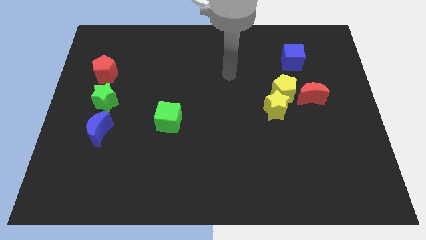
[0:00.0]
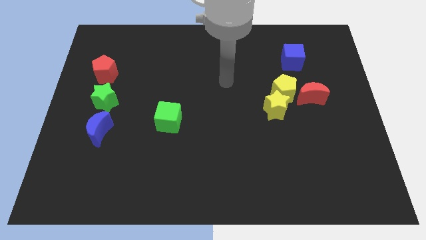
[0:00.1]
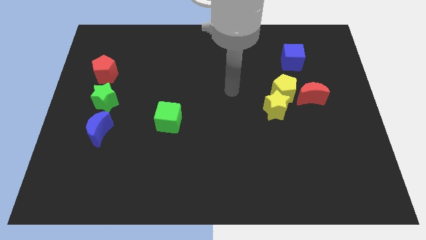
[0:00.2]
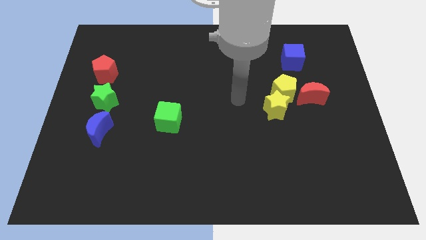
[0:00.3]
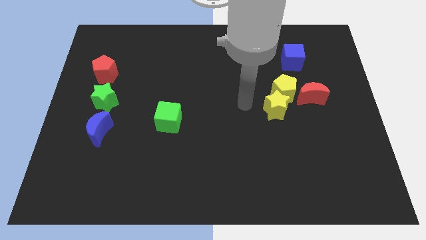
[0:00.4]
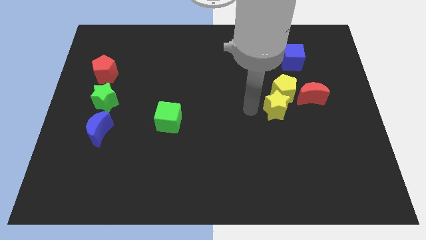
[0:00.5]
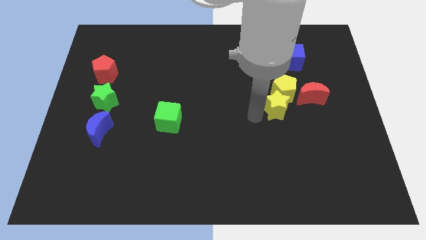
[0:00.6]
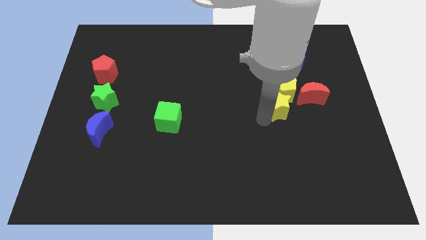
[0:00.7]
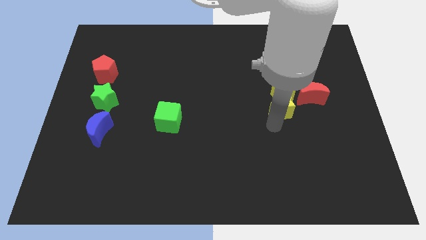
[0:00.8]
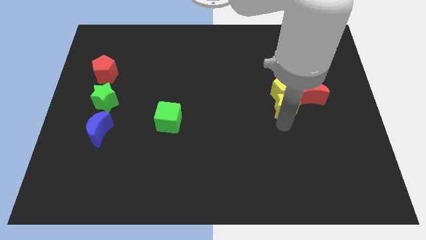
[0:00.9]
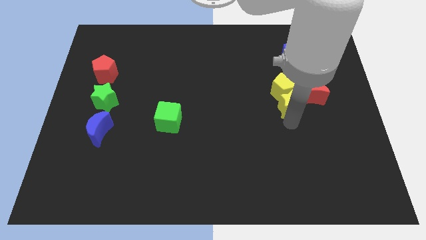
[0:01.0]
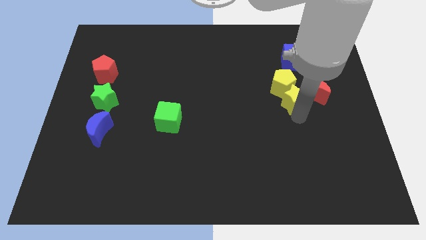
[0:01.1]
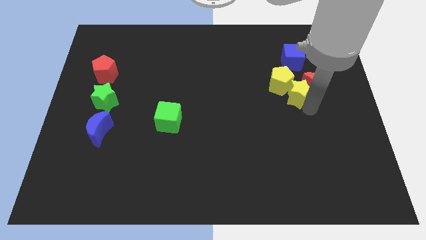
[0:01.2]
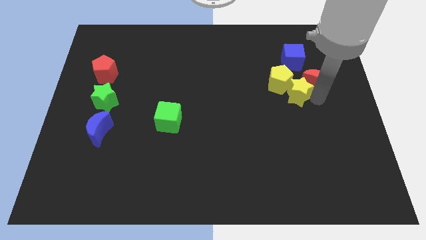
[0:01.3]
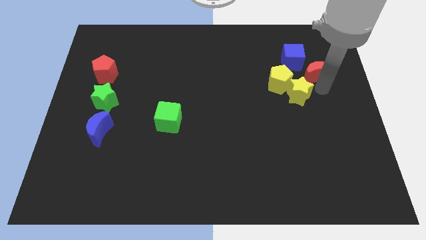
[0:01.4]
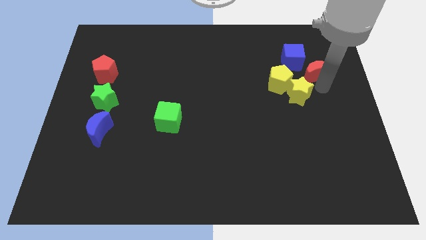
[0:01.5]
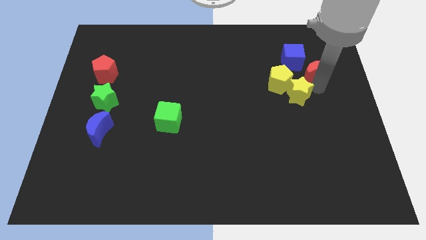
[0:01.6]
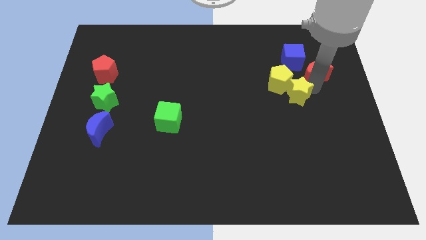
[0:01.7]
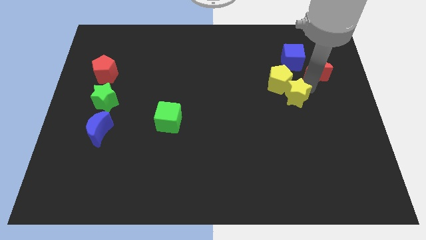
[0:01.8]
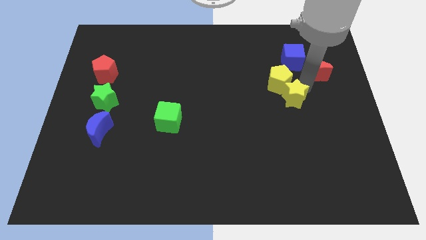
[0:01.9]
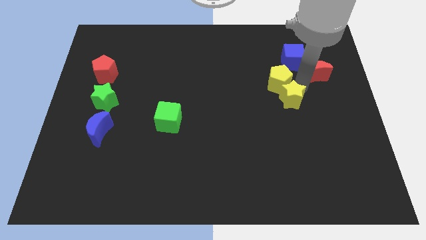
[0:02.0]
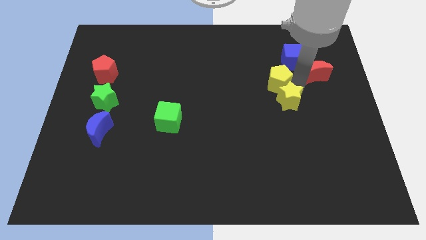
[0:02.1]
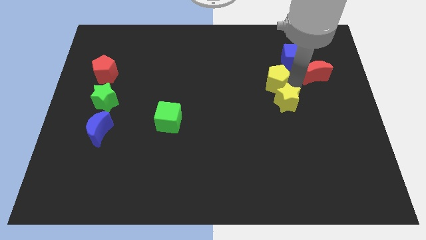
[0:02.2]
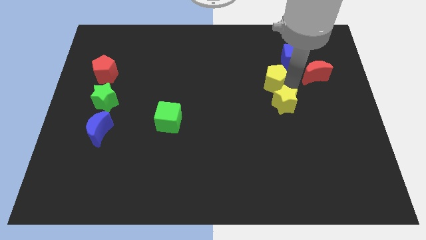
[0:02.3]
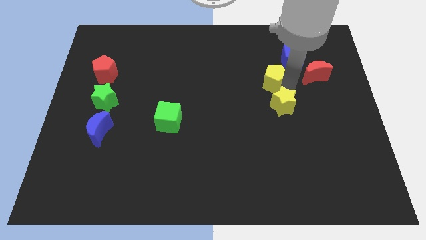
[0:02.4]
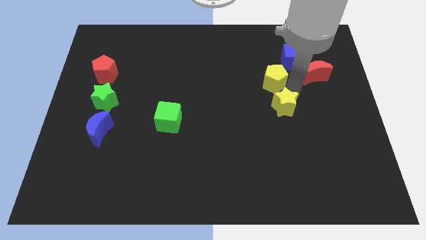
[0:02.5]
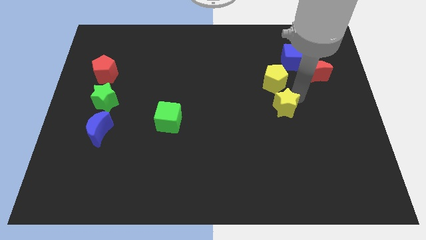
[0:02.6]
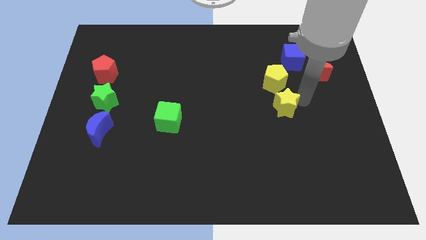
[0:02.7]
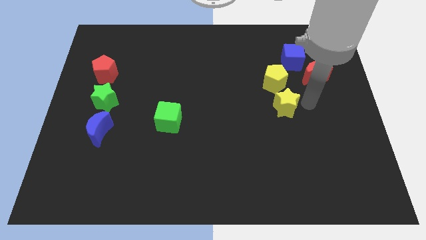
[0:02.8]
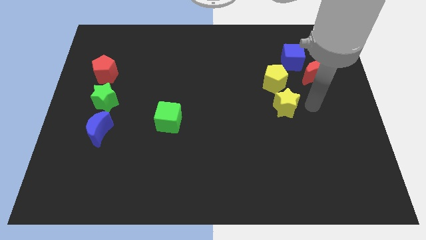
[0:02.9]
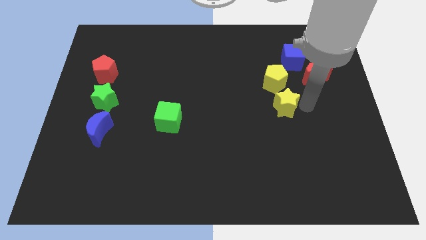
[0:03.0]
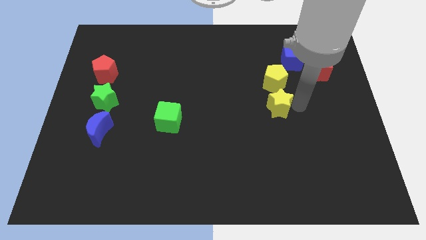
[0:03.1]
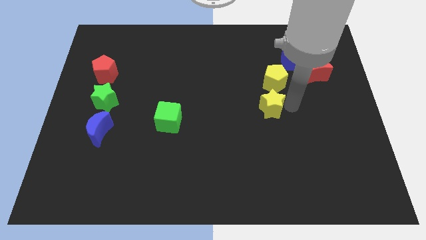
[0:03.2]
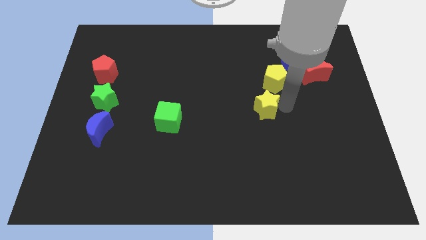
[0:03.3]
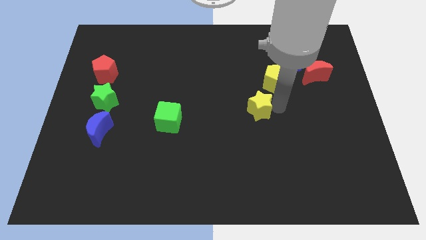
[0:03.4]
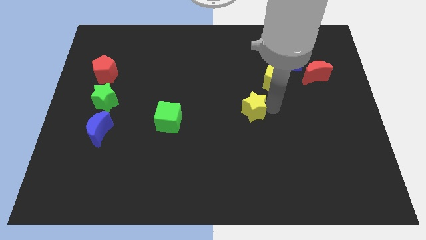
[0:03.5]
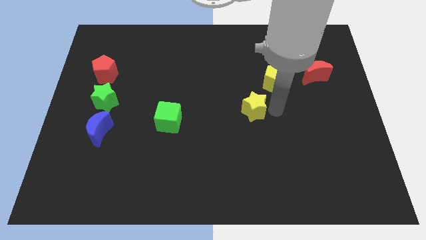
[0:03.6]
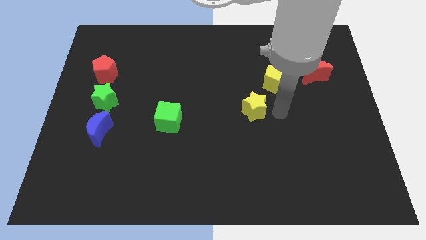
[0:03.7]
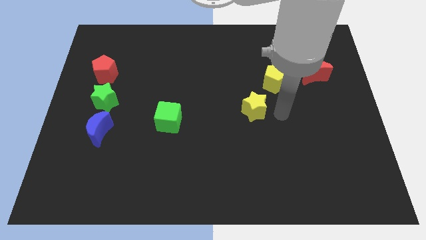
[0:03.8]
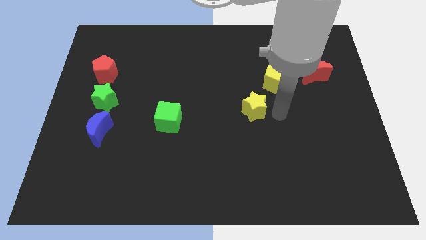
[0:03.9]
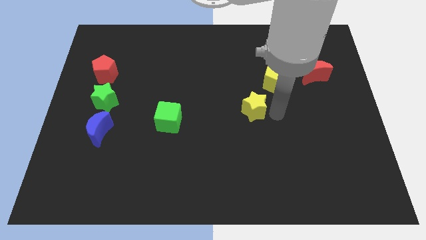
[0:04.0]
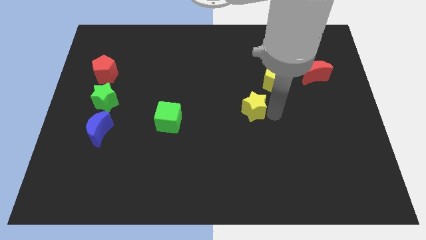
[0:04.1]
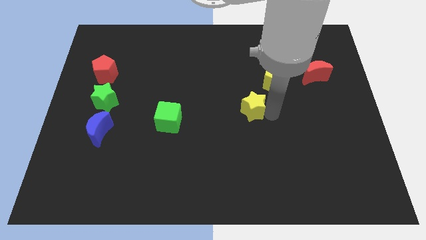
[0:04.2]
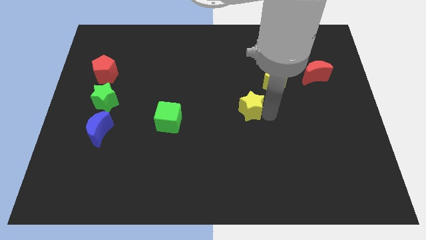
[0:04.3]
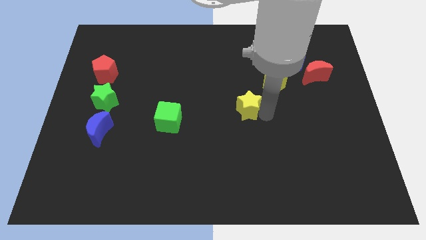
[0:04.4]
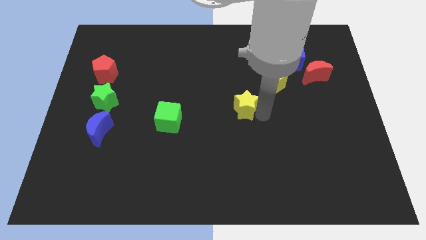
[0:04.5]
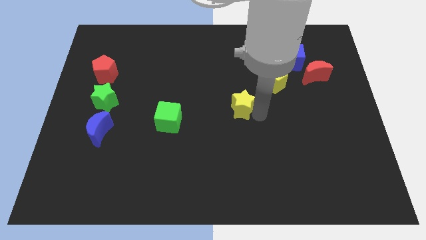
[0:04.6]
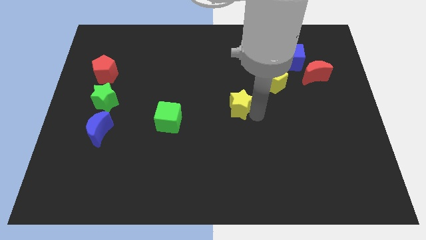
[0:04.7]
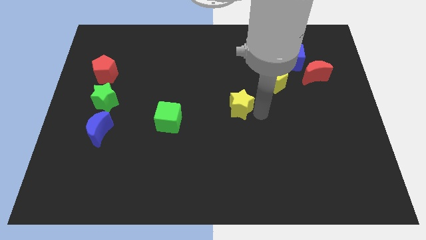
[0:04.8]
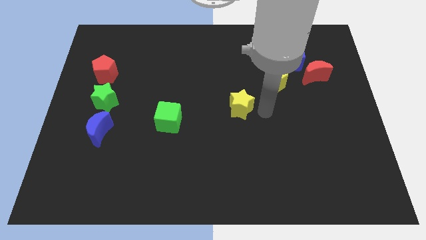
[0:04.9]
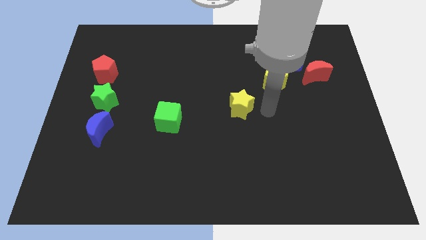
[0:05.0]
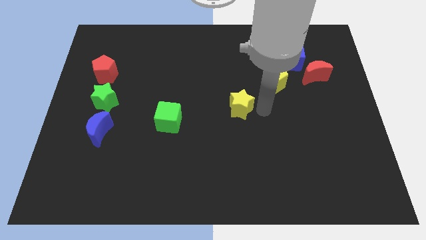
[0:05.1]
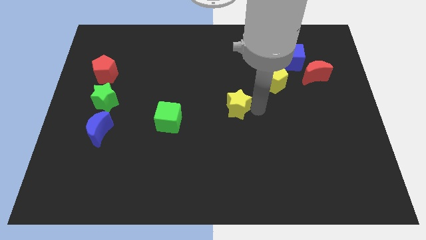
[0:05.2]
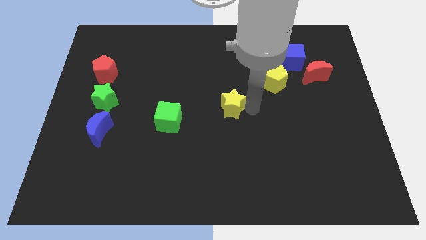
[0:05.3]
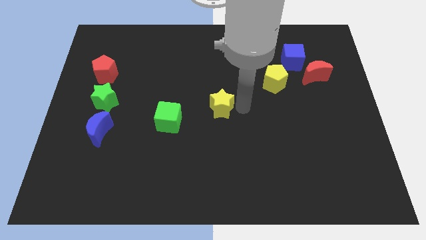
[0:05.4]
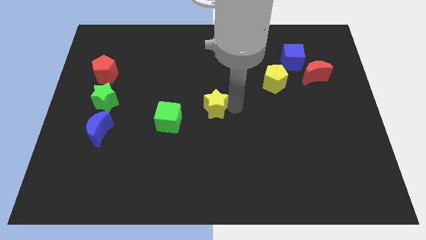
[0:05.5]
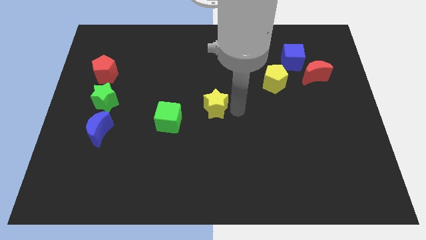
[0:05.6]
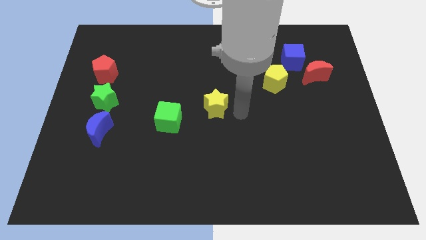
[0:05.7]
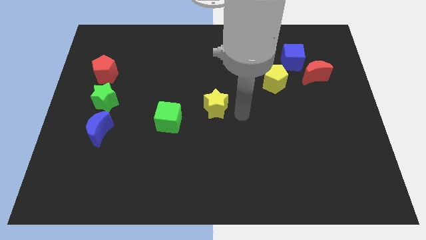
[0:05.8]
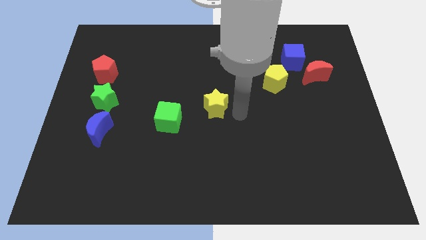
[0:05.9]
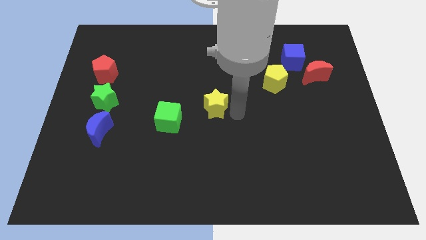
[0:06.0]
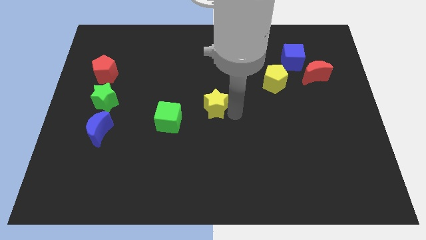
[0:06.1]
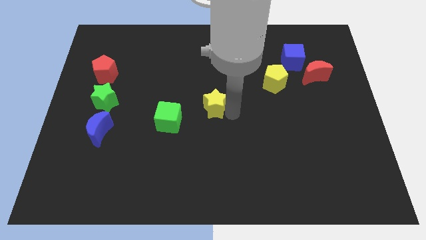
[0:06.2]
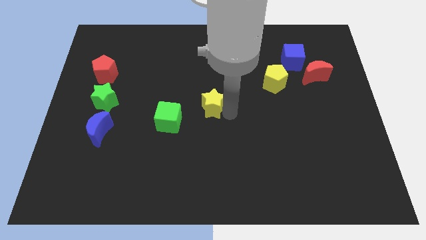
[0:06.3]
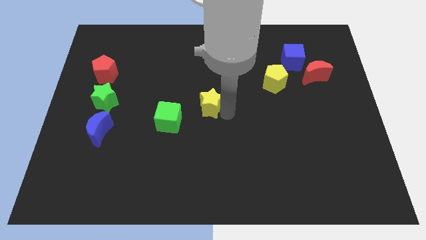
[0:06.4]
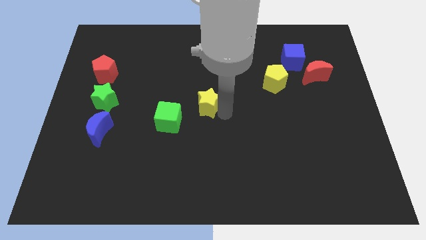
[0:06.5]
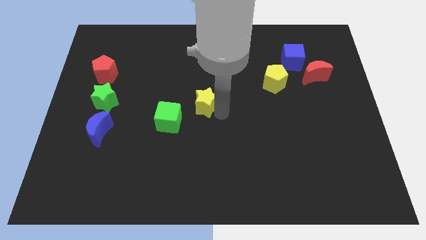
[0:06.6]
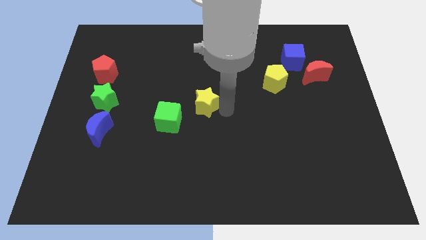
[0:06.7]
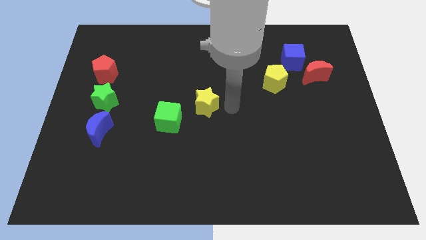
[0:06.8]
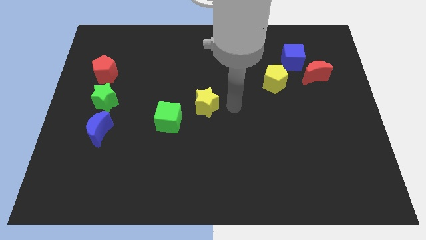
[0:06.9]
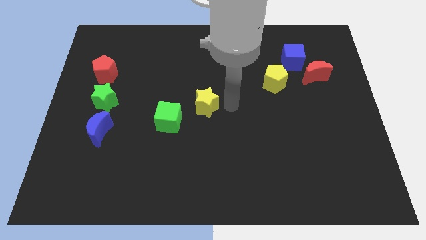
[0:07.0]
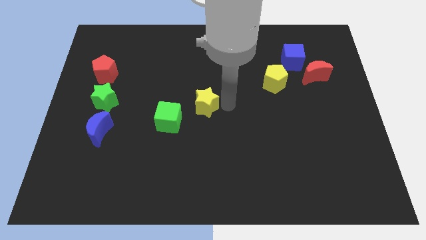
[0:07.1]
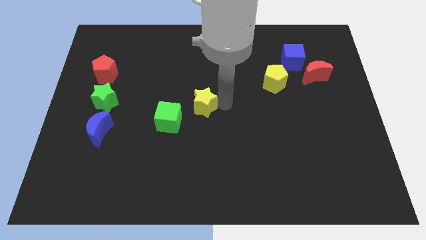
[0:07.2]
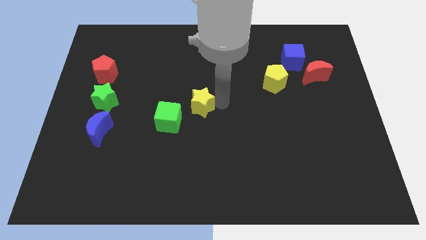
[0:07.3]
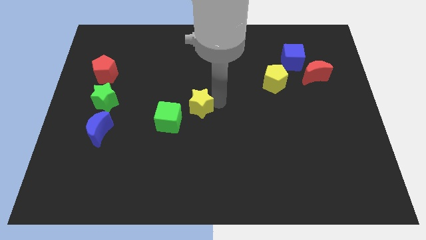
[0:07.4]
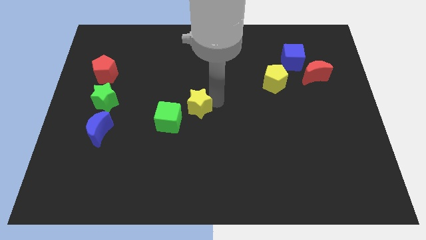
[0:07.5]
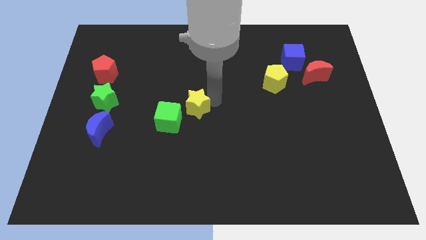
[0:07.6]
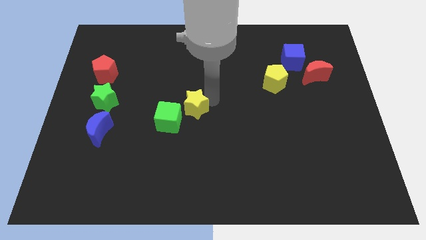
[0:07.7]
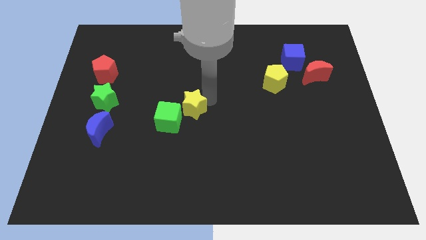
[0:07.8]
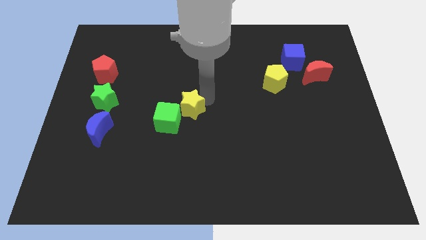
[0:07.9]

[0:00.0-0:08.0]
slide the yellow star left
